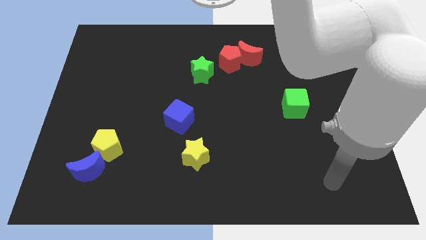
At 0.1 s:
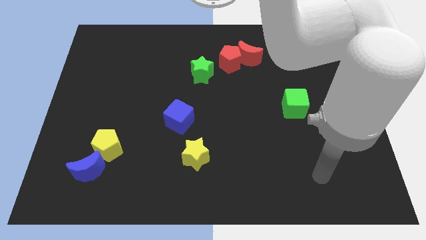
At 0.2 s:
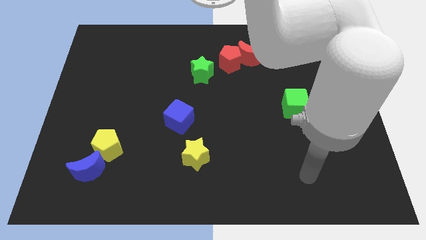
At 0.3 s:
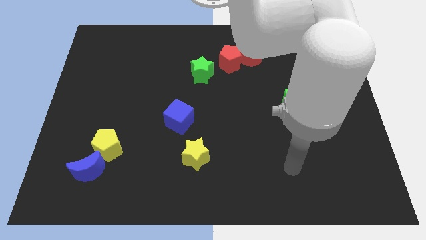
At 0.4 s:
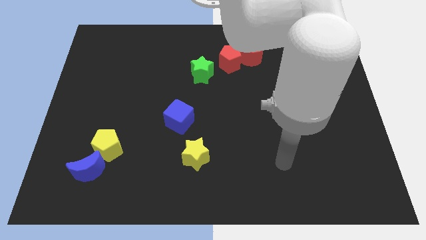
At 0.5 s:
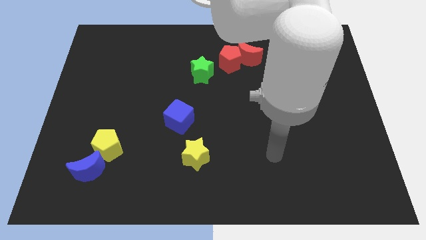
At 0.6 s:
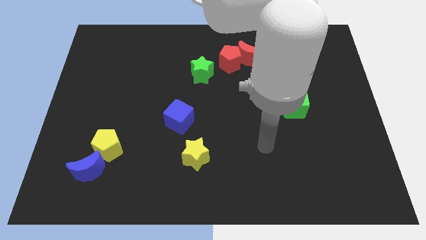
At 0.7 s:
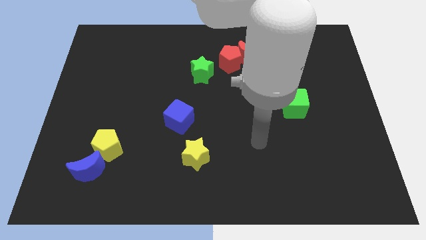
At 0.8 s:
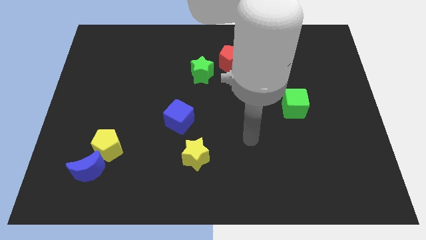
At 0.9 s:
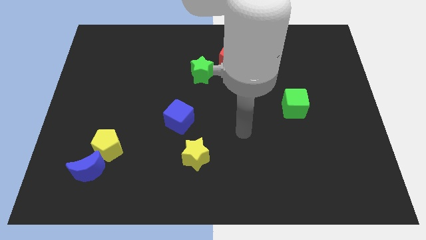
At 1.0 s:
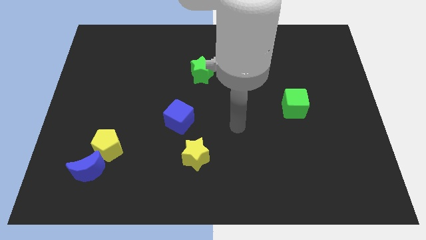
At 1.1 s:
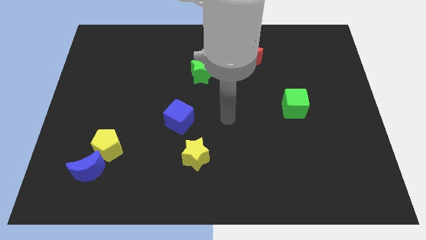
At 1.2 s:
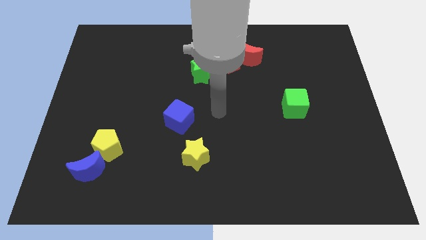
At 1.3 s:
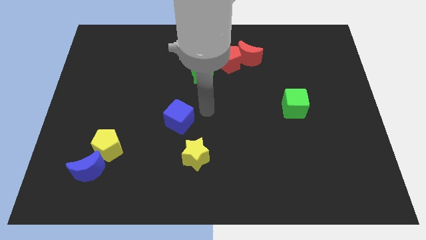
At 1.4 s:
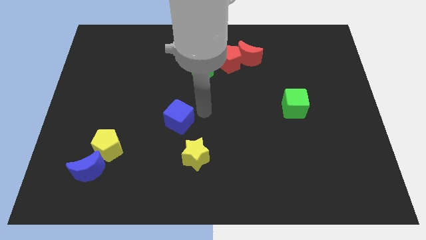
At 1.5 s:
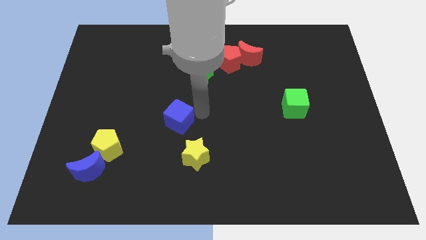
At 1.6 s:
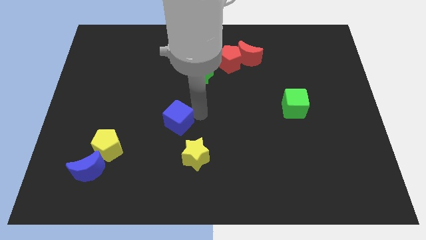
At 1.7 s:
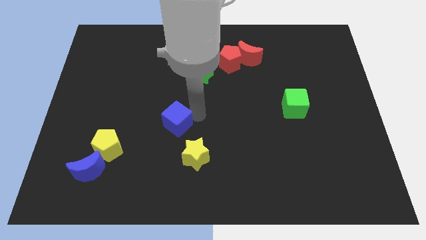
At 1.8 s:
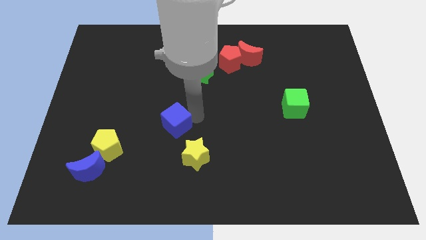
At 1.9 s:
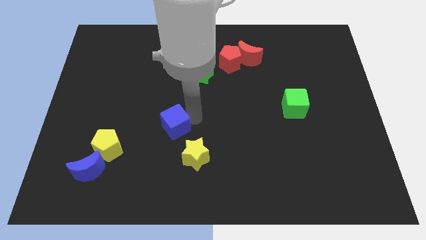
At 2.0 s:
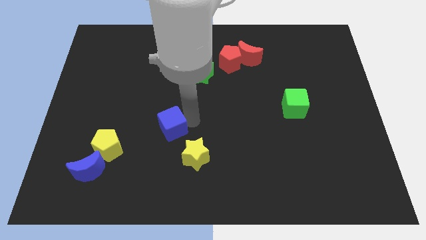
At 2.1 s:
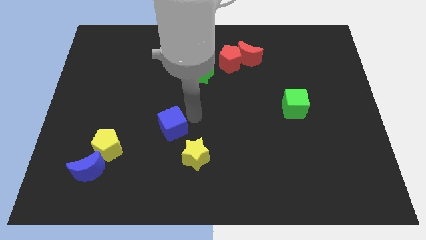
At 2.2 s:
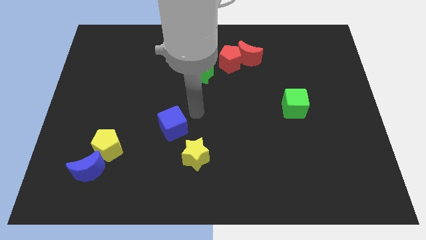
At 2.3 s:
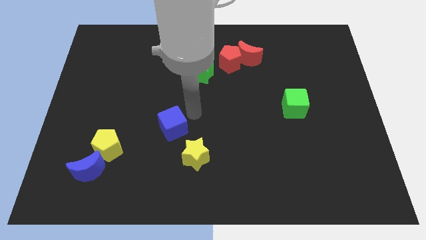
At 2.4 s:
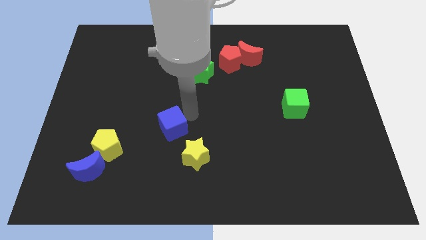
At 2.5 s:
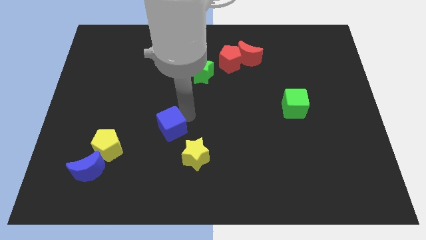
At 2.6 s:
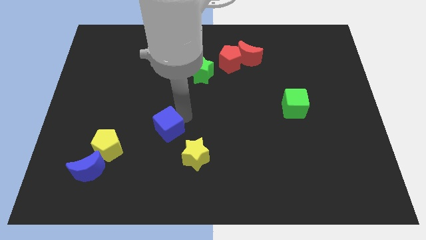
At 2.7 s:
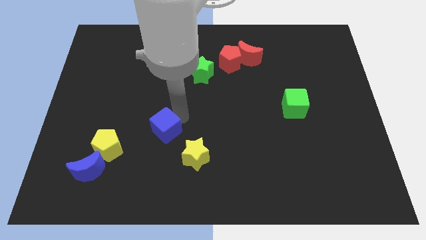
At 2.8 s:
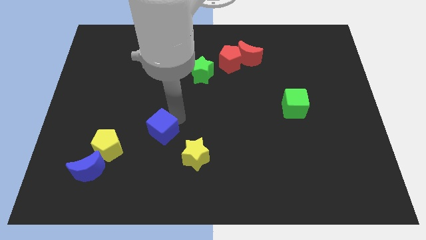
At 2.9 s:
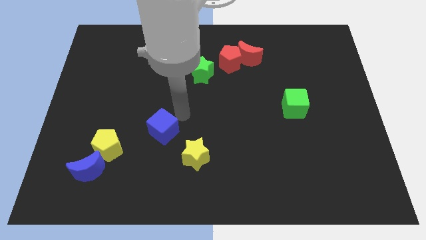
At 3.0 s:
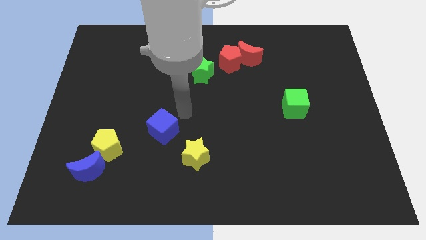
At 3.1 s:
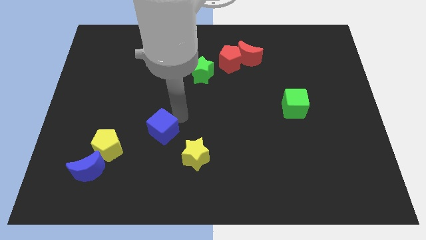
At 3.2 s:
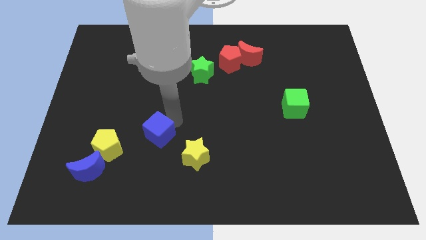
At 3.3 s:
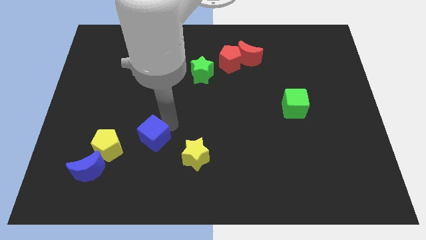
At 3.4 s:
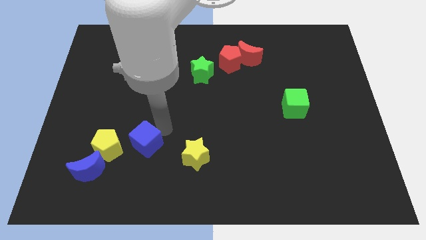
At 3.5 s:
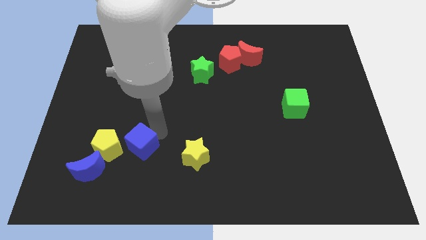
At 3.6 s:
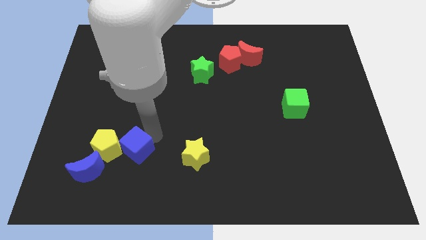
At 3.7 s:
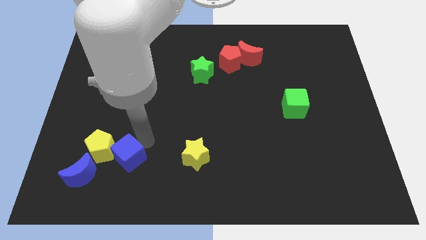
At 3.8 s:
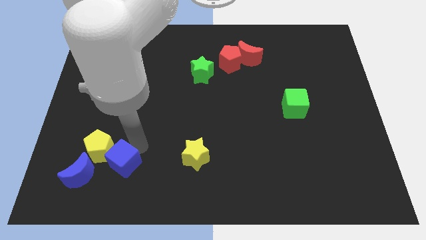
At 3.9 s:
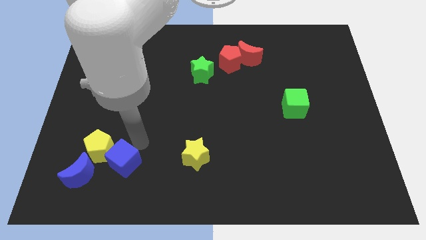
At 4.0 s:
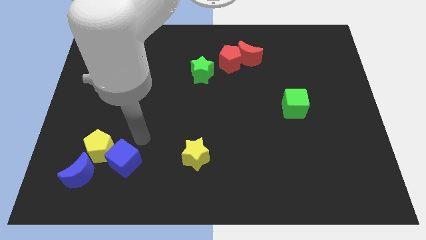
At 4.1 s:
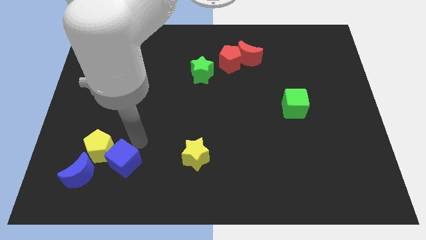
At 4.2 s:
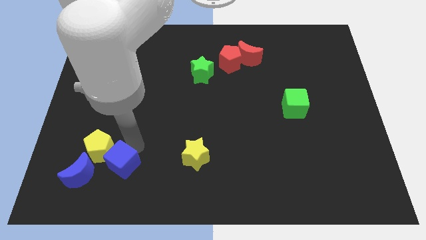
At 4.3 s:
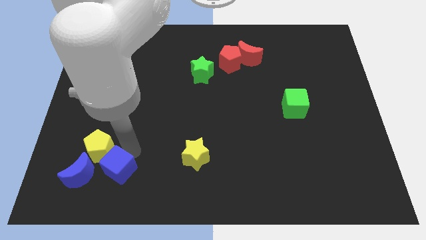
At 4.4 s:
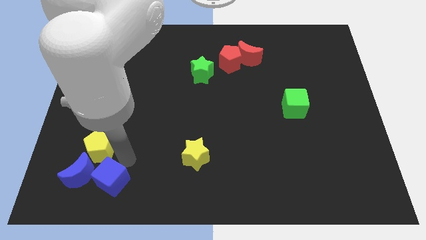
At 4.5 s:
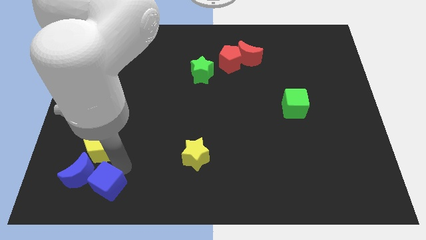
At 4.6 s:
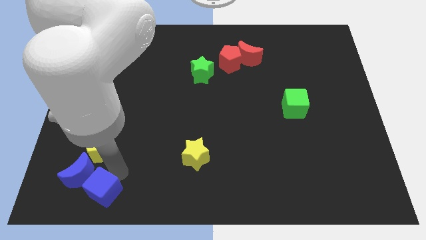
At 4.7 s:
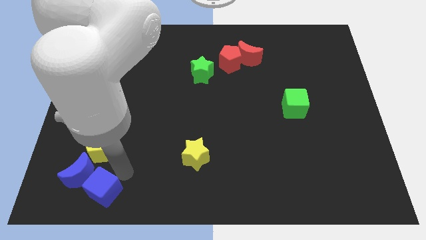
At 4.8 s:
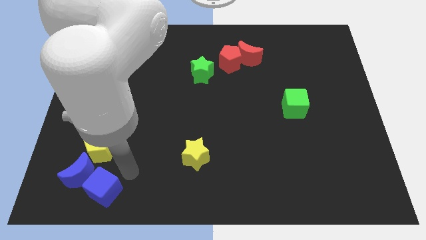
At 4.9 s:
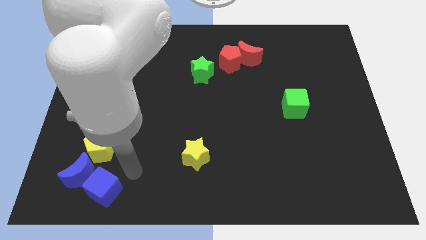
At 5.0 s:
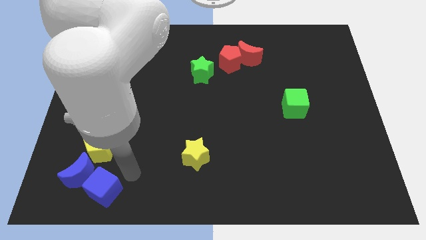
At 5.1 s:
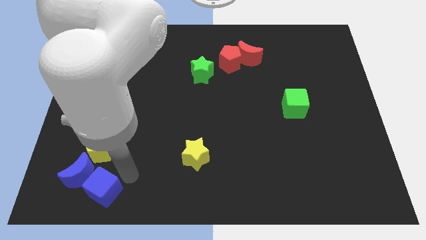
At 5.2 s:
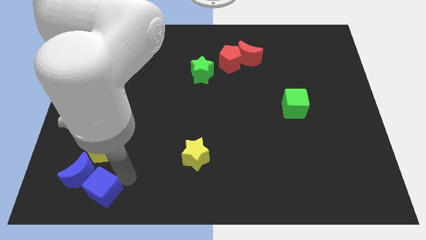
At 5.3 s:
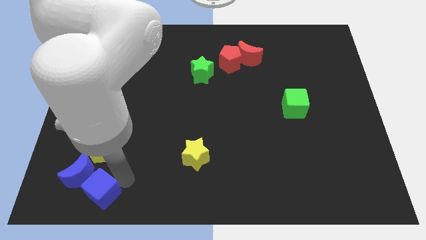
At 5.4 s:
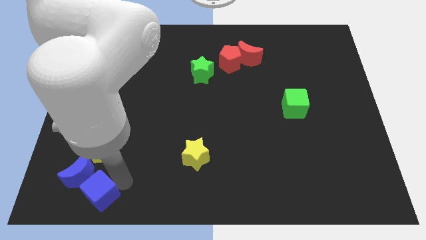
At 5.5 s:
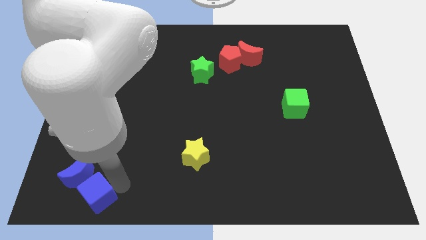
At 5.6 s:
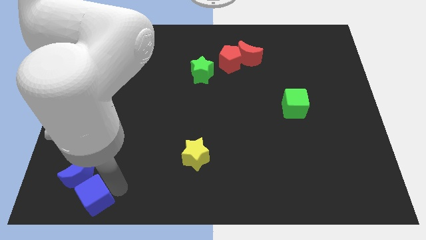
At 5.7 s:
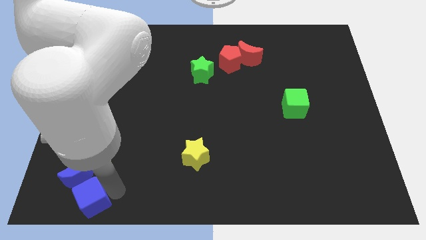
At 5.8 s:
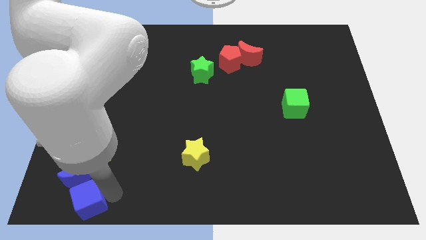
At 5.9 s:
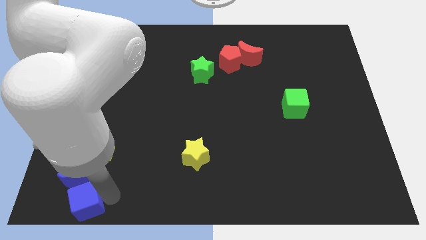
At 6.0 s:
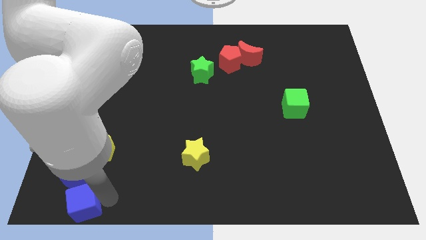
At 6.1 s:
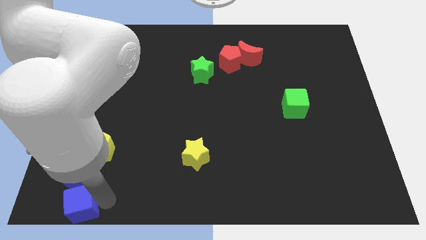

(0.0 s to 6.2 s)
put the blue cube to the lower left corner

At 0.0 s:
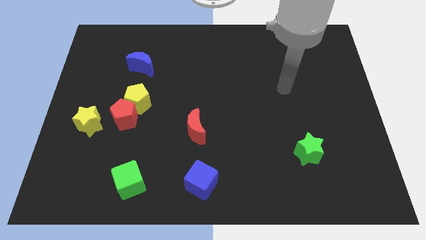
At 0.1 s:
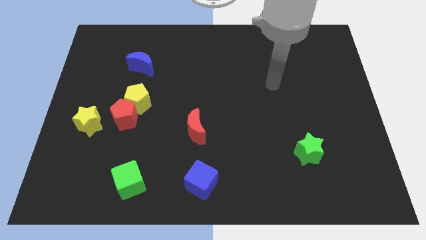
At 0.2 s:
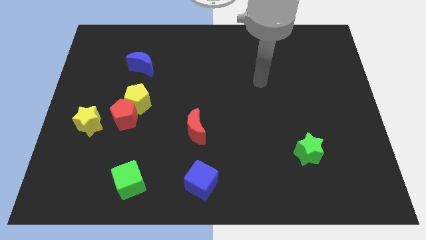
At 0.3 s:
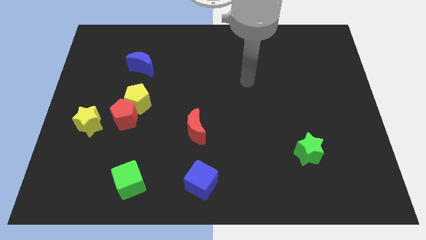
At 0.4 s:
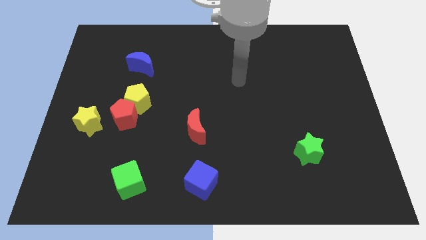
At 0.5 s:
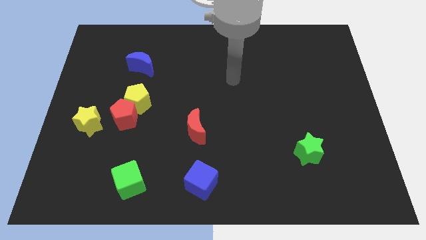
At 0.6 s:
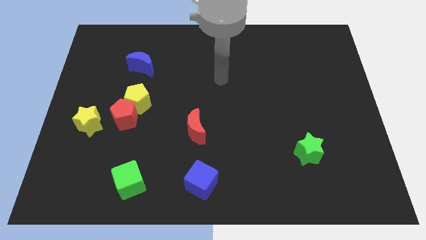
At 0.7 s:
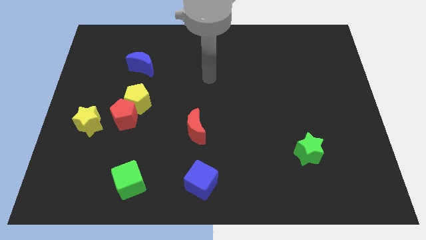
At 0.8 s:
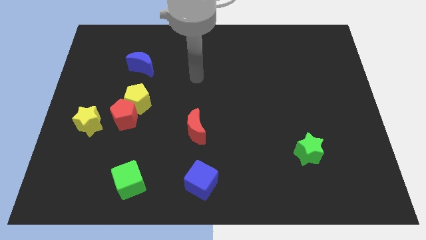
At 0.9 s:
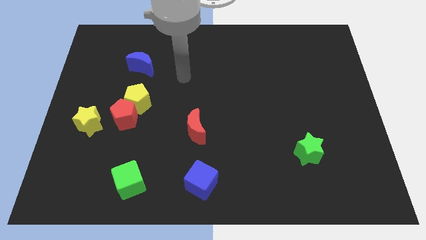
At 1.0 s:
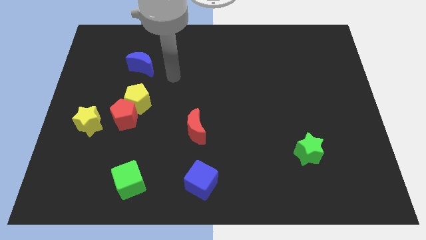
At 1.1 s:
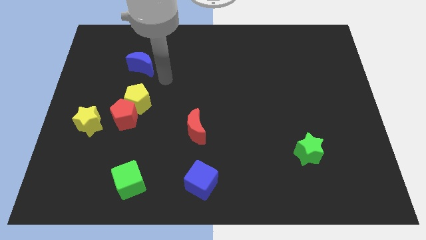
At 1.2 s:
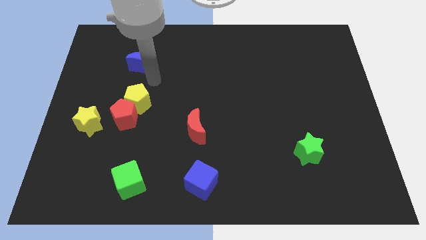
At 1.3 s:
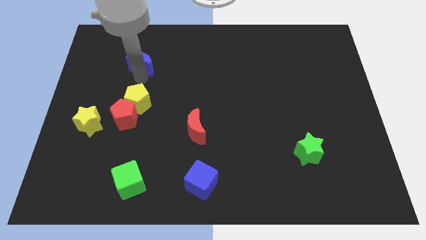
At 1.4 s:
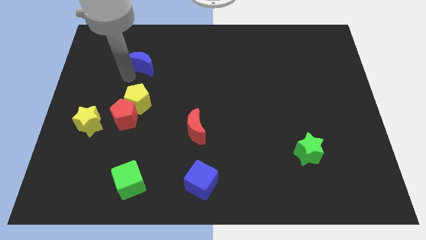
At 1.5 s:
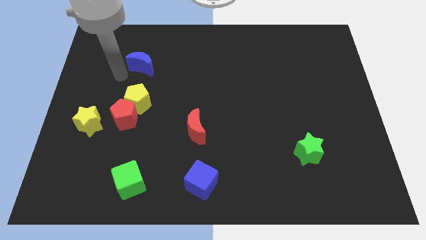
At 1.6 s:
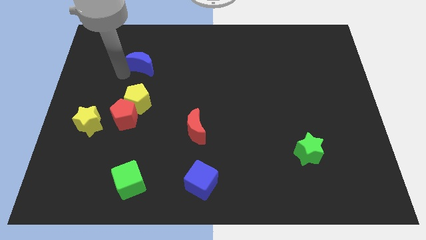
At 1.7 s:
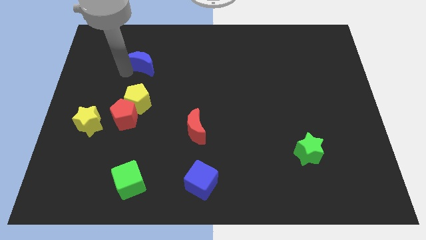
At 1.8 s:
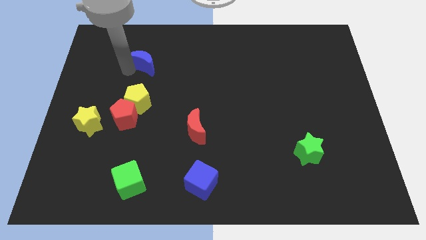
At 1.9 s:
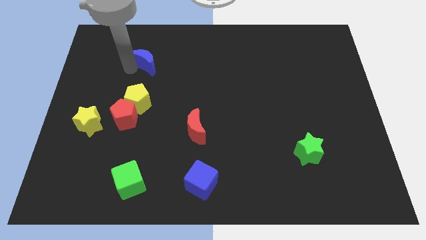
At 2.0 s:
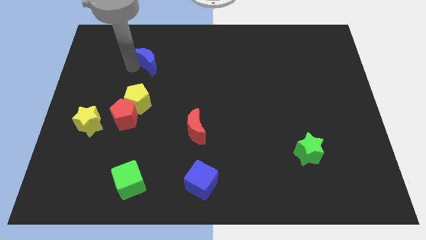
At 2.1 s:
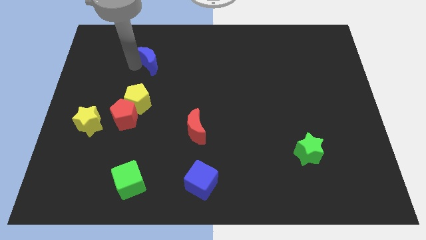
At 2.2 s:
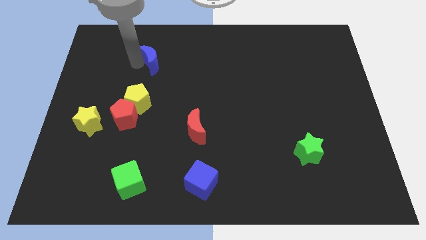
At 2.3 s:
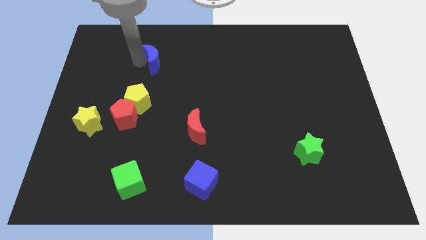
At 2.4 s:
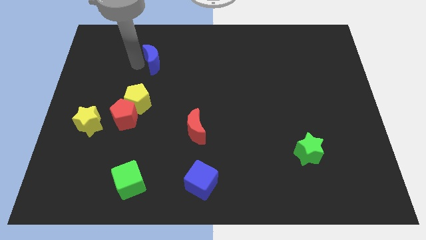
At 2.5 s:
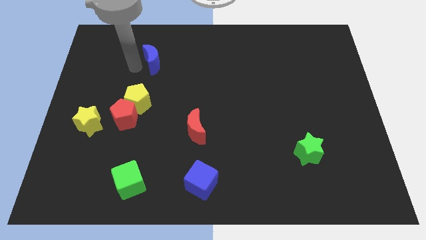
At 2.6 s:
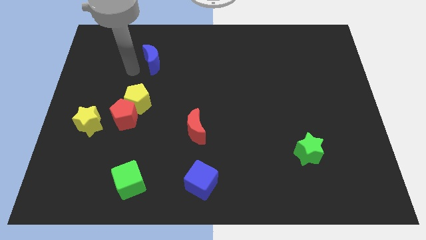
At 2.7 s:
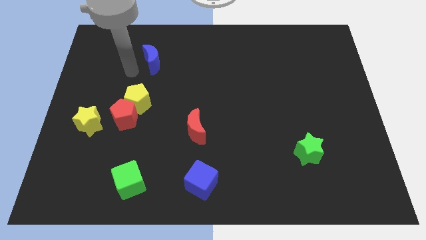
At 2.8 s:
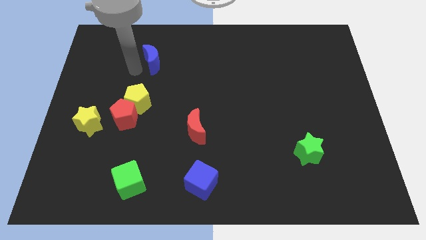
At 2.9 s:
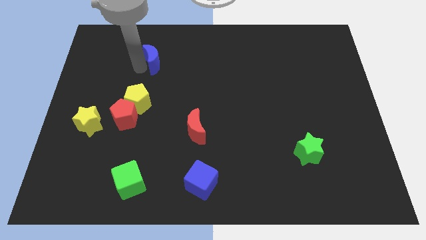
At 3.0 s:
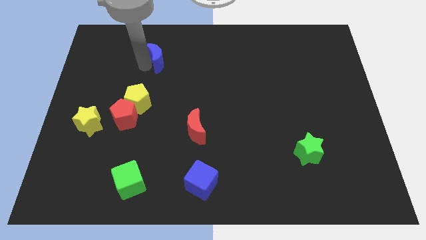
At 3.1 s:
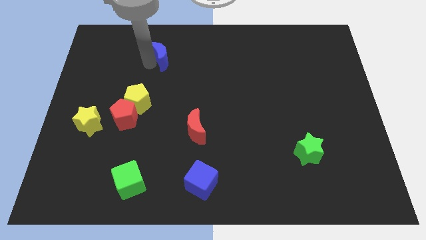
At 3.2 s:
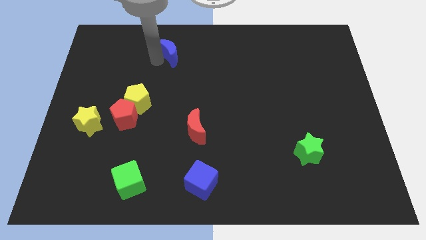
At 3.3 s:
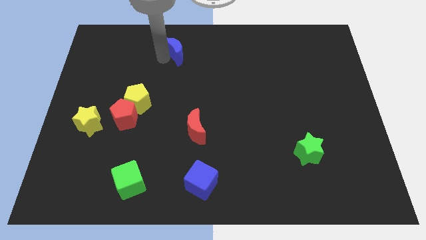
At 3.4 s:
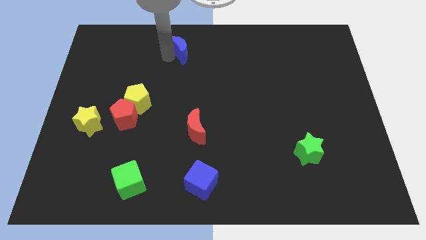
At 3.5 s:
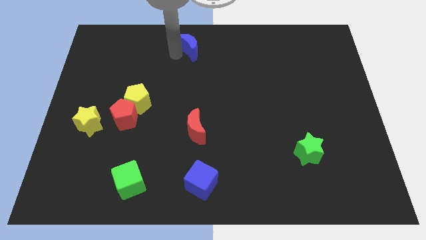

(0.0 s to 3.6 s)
slide the blue moon to the top
